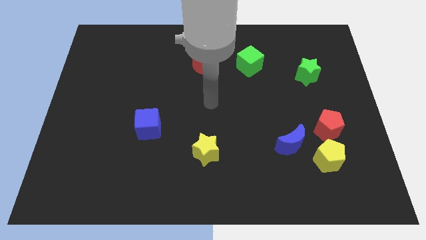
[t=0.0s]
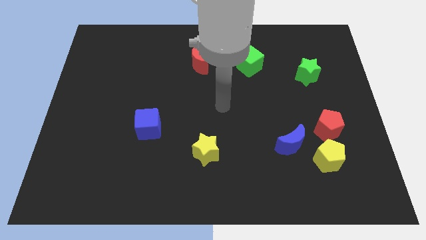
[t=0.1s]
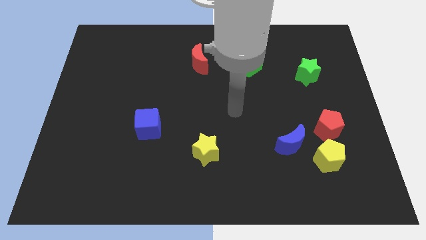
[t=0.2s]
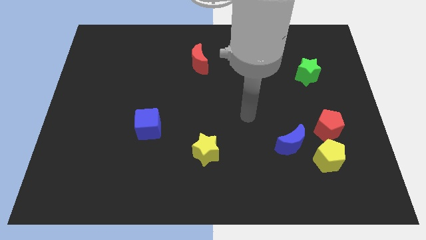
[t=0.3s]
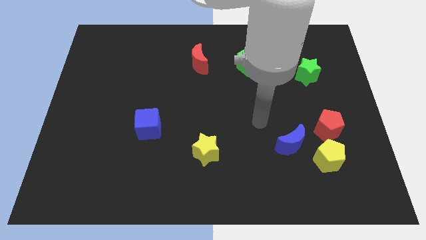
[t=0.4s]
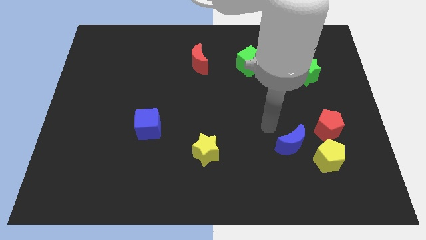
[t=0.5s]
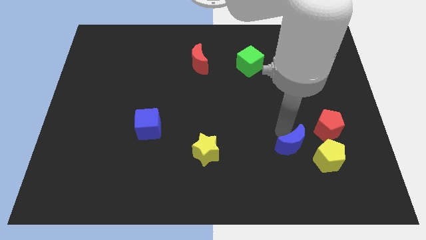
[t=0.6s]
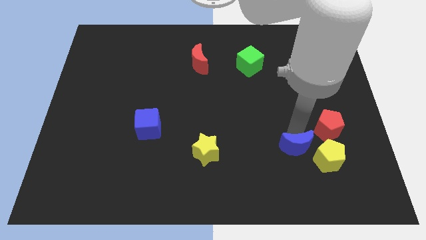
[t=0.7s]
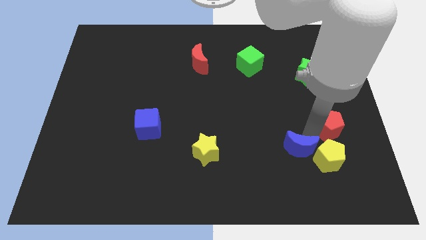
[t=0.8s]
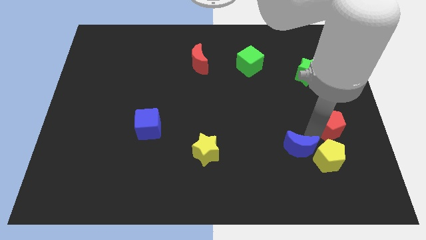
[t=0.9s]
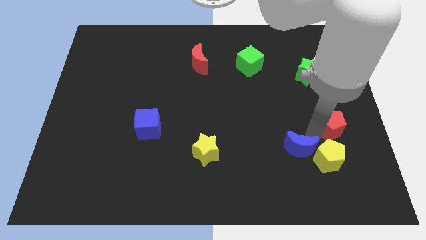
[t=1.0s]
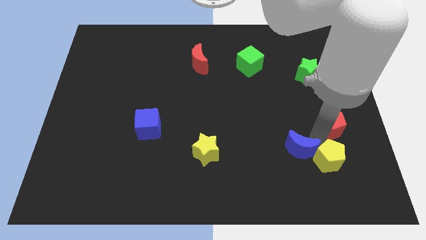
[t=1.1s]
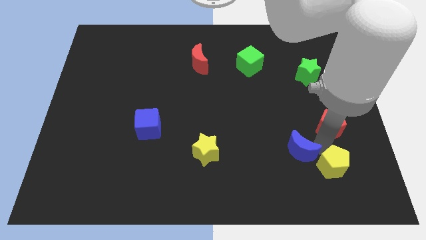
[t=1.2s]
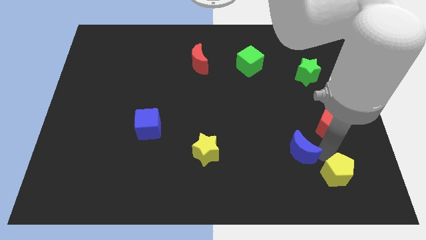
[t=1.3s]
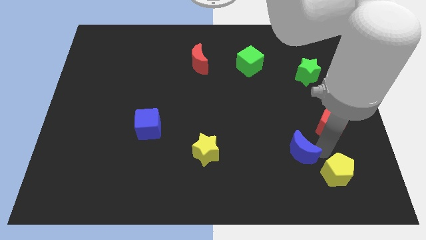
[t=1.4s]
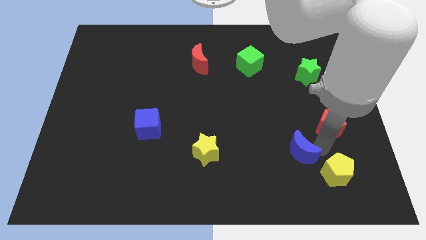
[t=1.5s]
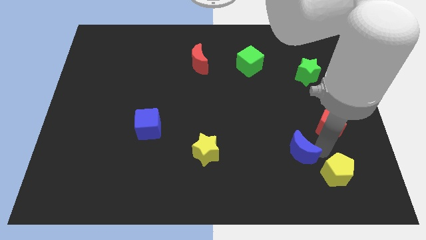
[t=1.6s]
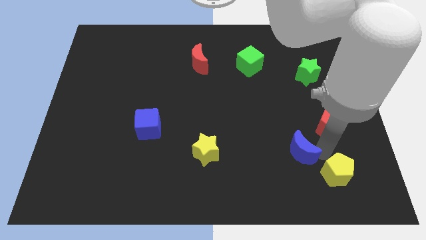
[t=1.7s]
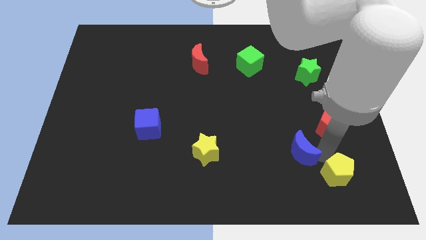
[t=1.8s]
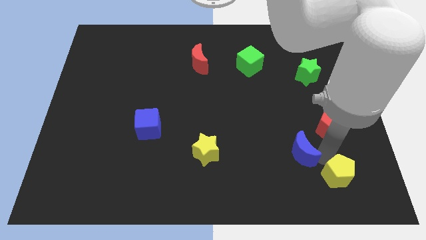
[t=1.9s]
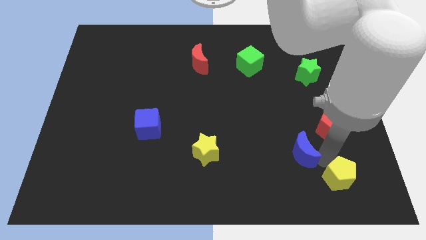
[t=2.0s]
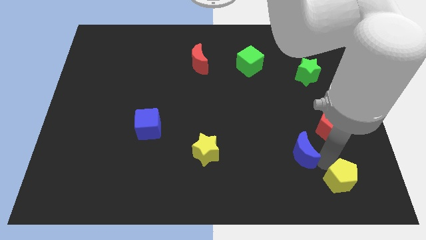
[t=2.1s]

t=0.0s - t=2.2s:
move the yellow pentagon away from the red pentagon and blue moon

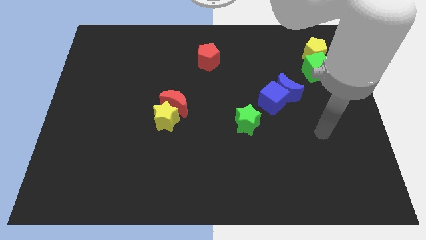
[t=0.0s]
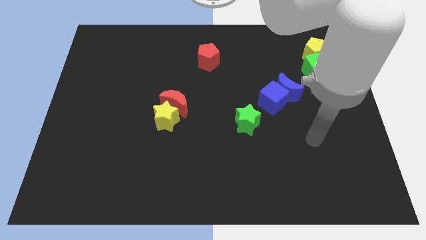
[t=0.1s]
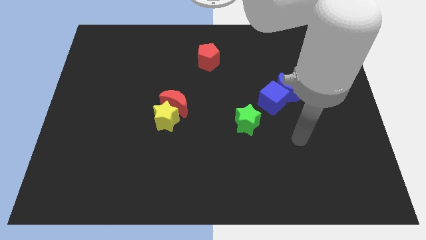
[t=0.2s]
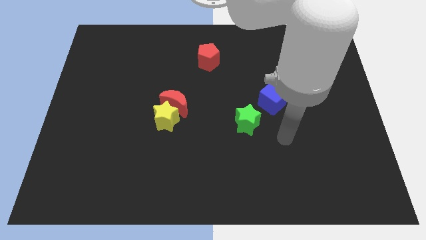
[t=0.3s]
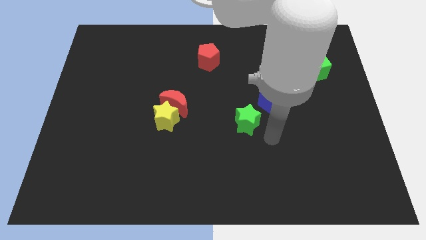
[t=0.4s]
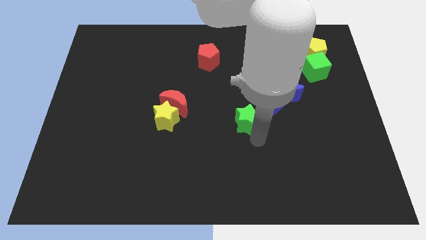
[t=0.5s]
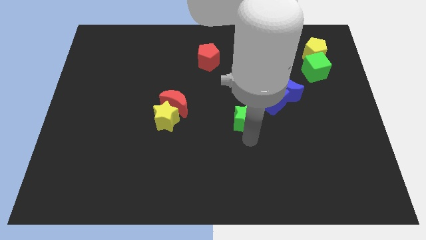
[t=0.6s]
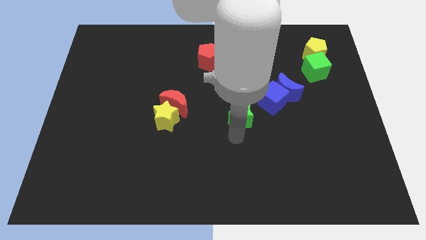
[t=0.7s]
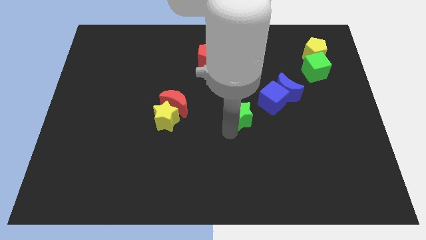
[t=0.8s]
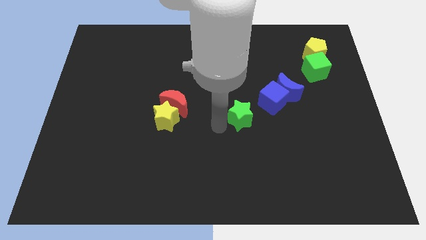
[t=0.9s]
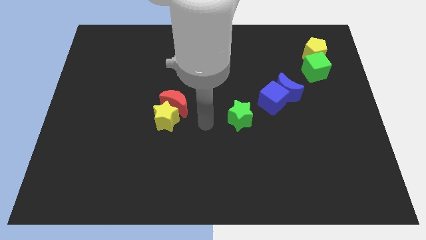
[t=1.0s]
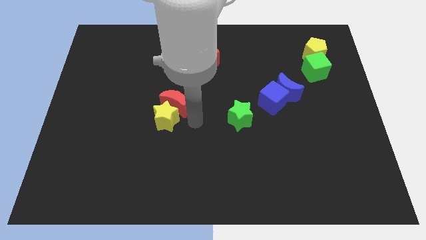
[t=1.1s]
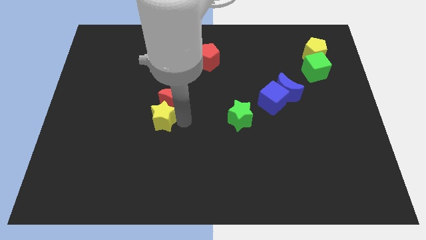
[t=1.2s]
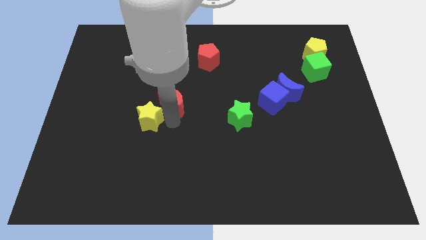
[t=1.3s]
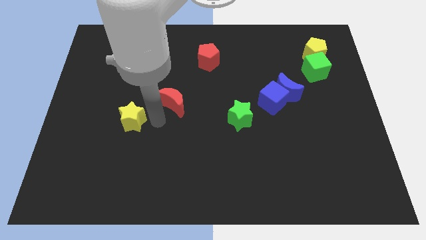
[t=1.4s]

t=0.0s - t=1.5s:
pull the red moon apart from the yellow star

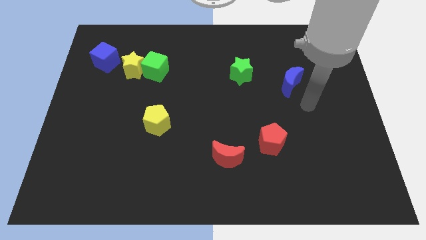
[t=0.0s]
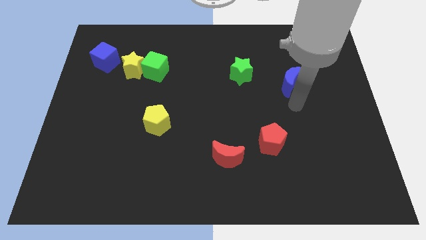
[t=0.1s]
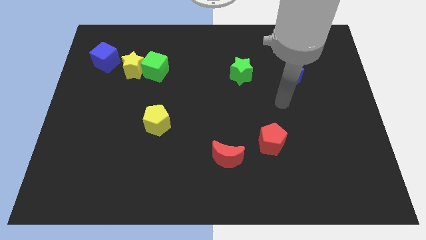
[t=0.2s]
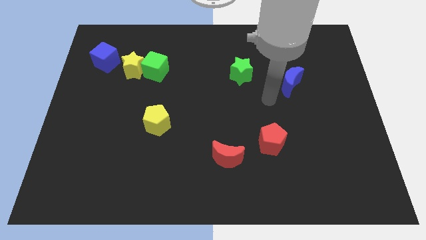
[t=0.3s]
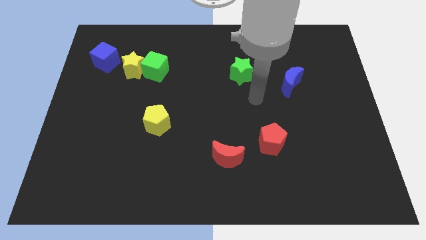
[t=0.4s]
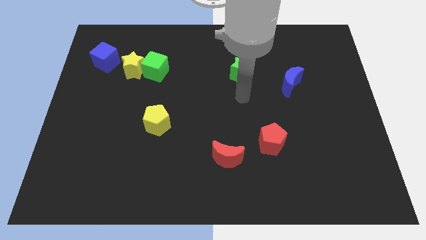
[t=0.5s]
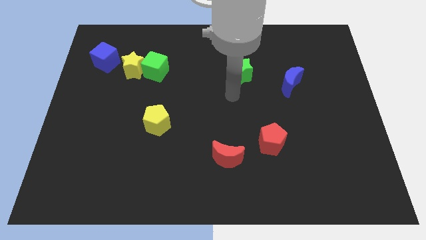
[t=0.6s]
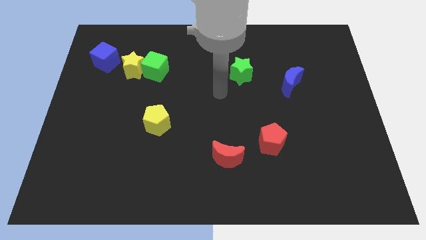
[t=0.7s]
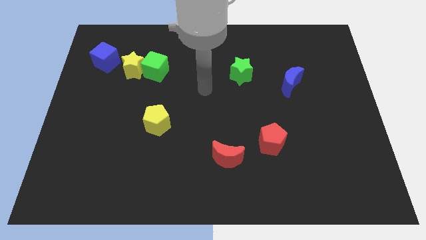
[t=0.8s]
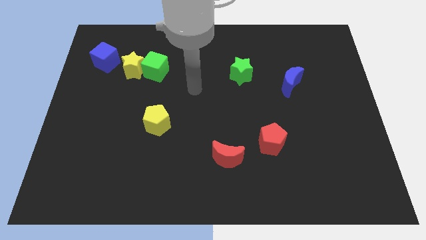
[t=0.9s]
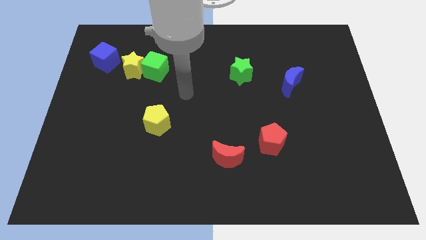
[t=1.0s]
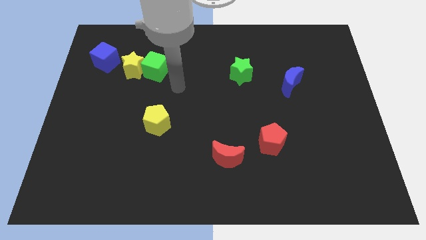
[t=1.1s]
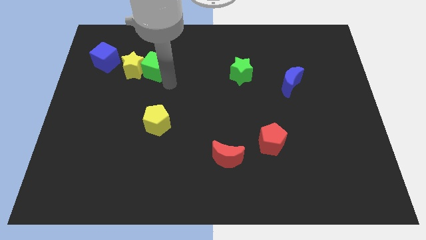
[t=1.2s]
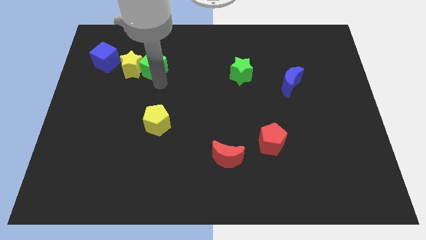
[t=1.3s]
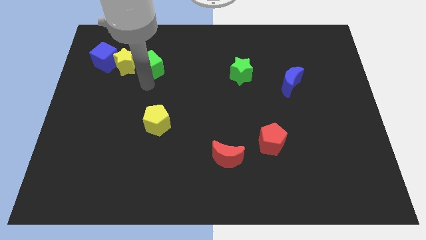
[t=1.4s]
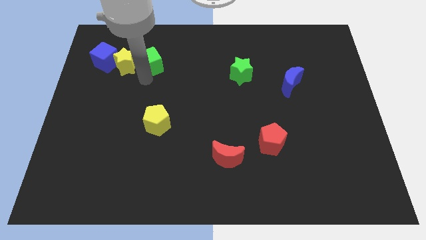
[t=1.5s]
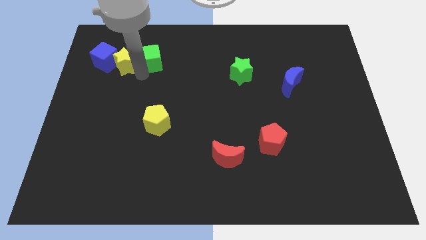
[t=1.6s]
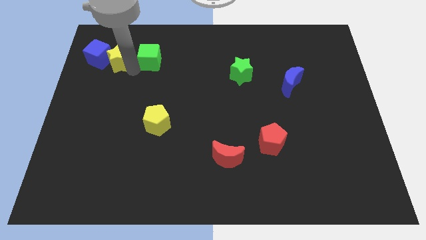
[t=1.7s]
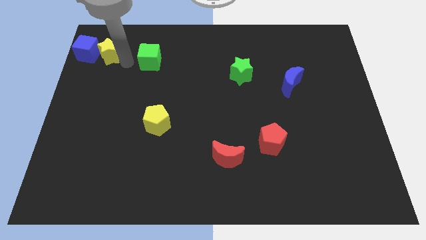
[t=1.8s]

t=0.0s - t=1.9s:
pull the green cube apart from the yellow star

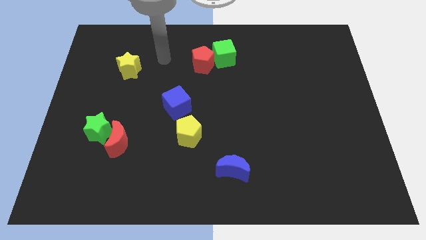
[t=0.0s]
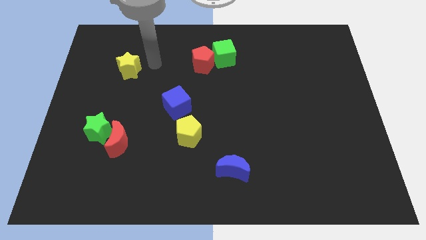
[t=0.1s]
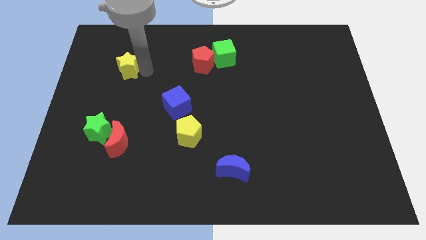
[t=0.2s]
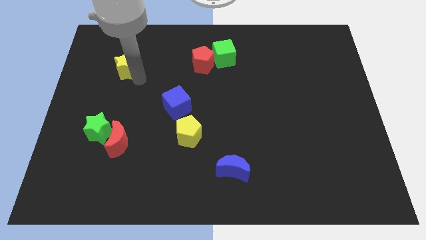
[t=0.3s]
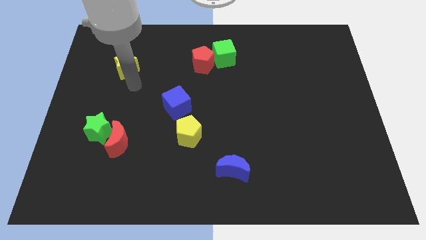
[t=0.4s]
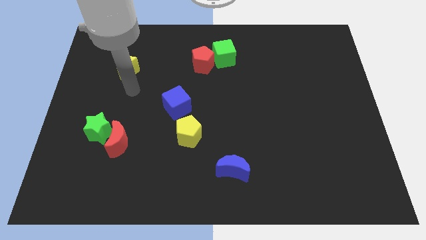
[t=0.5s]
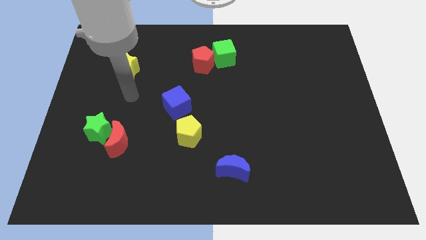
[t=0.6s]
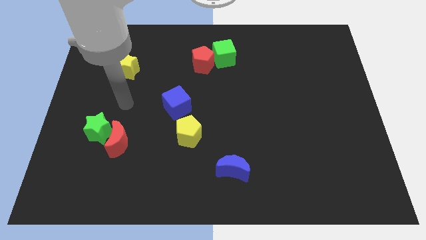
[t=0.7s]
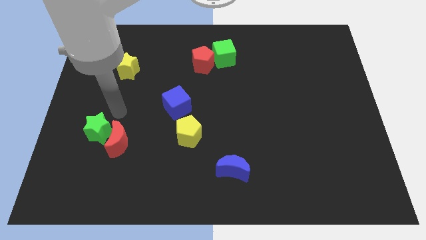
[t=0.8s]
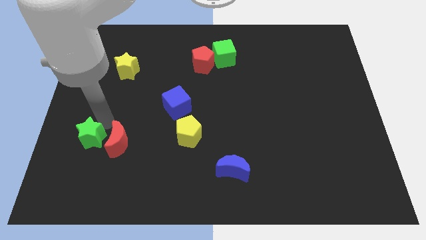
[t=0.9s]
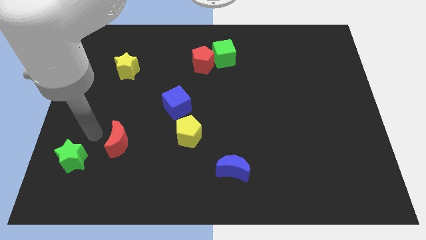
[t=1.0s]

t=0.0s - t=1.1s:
pull the red moon apart from the green star

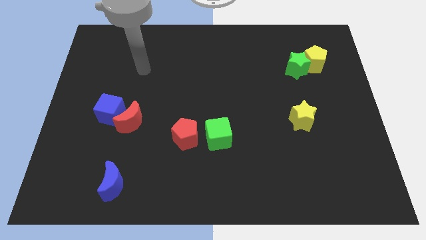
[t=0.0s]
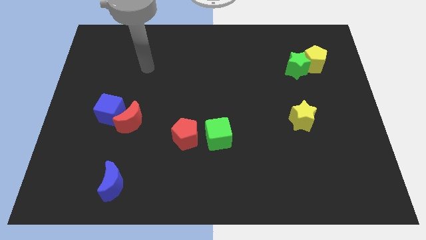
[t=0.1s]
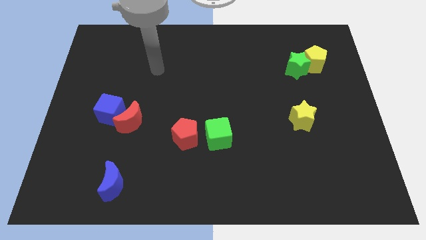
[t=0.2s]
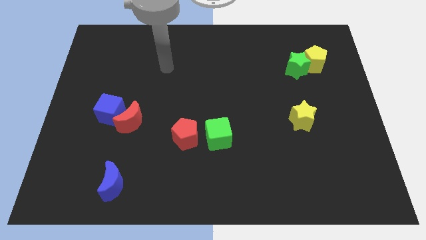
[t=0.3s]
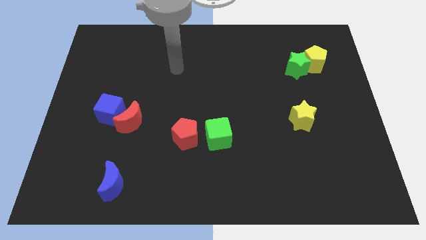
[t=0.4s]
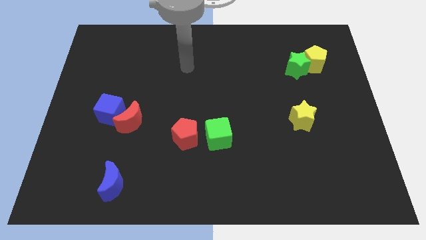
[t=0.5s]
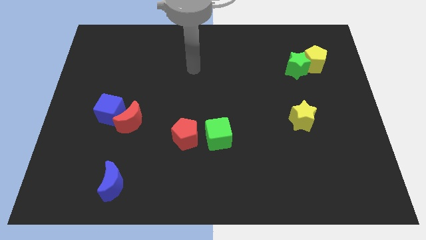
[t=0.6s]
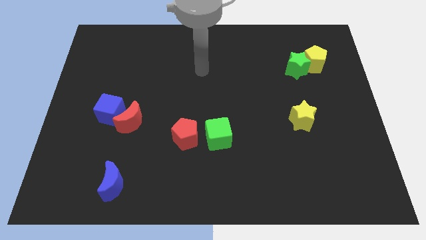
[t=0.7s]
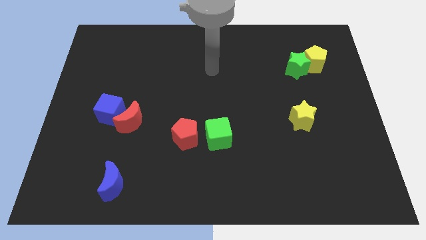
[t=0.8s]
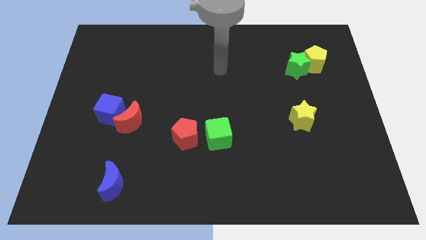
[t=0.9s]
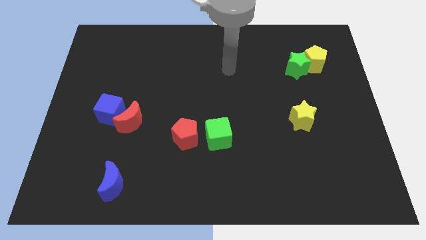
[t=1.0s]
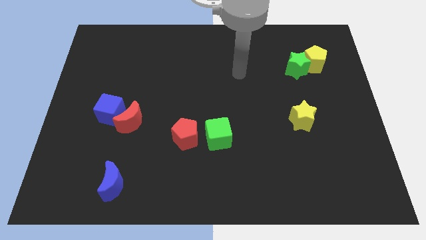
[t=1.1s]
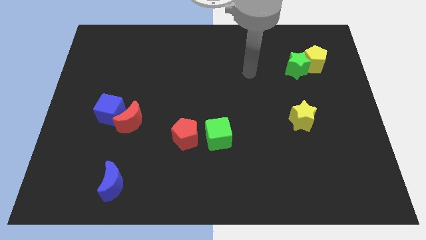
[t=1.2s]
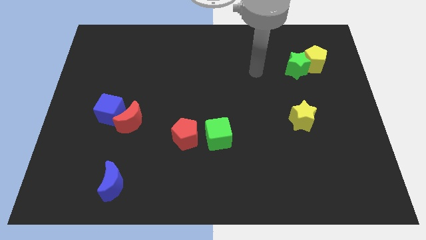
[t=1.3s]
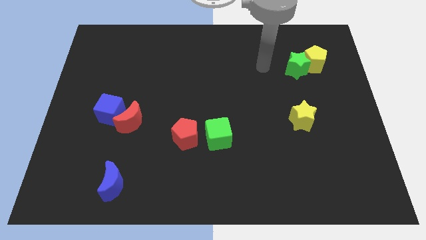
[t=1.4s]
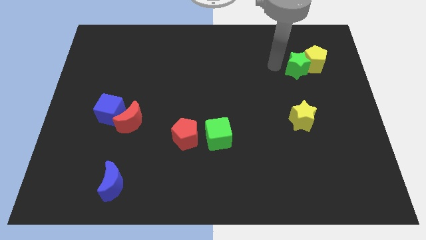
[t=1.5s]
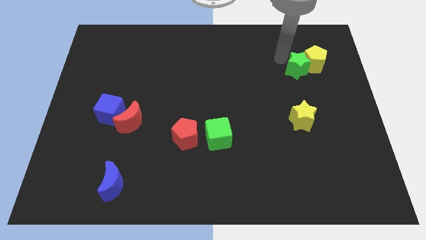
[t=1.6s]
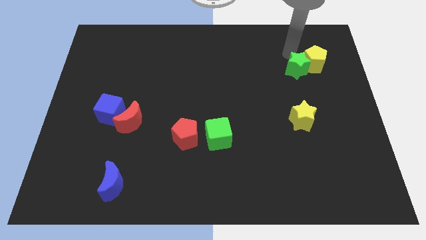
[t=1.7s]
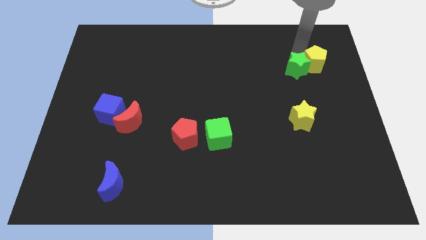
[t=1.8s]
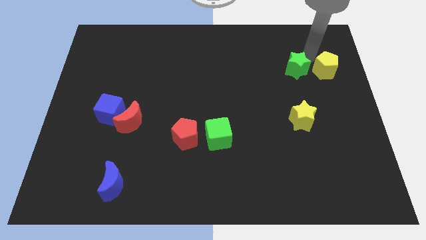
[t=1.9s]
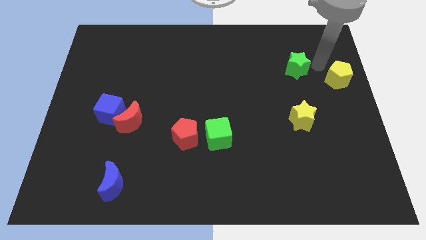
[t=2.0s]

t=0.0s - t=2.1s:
separate the green star from the yellow pentagon

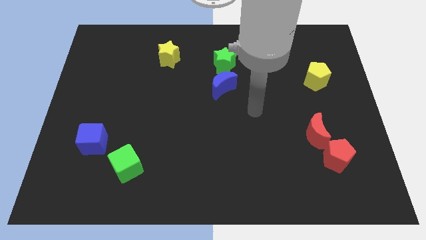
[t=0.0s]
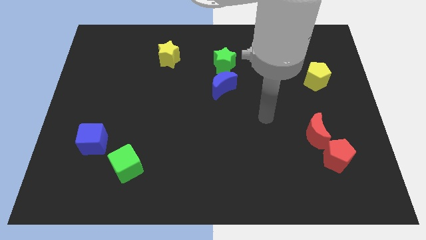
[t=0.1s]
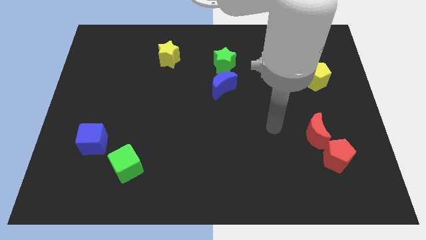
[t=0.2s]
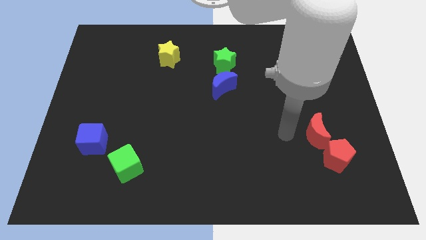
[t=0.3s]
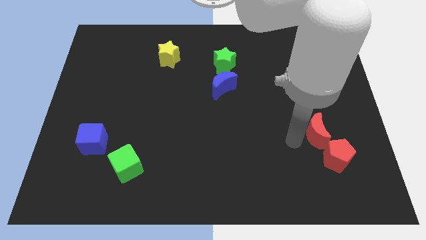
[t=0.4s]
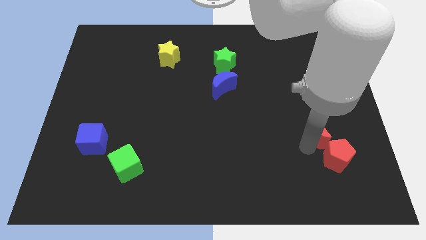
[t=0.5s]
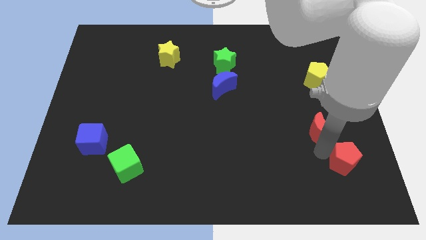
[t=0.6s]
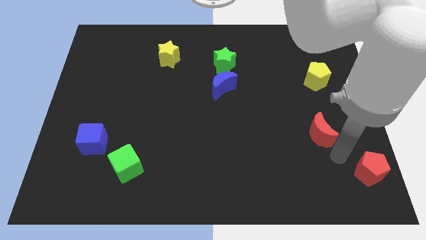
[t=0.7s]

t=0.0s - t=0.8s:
separate the red moon from the red pentagon
